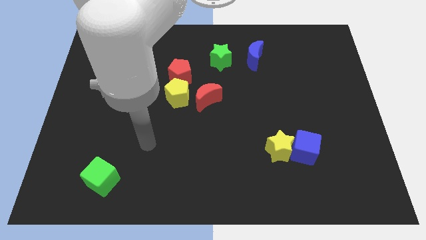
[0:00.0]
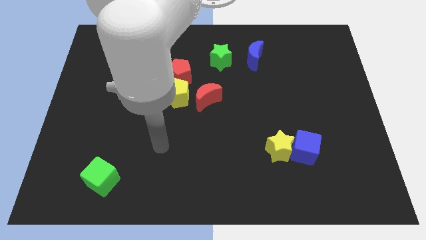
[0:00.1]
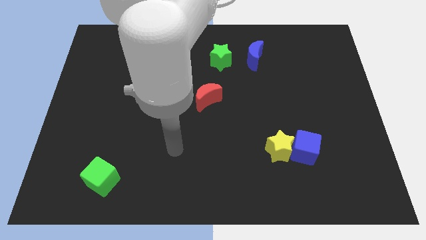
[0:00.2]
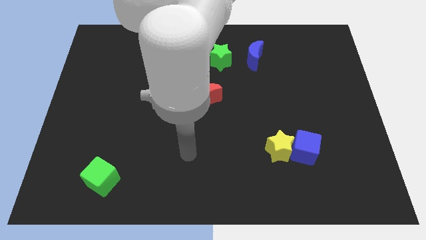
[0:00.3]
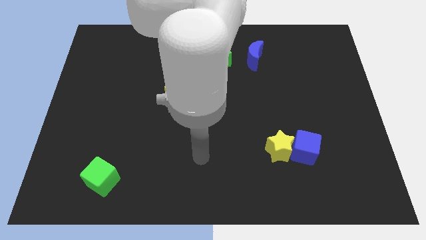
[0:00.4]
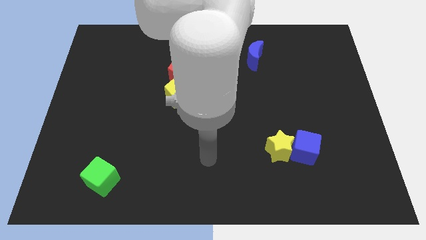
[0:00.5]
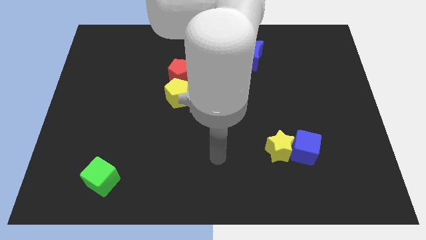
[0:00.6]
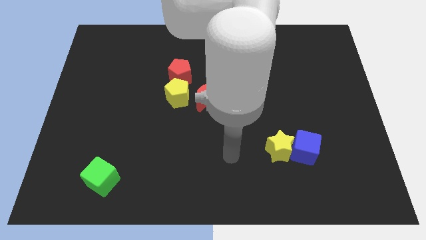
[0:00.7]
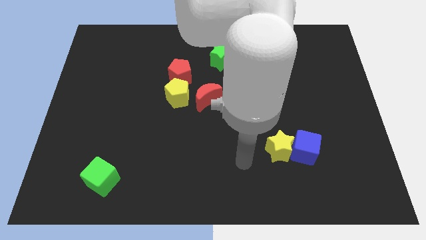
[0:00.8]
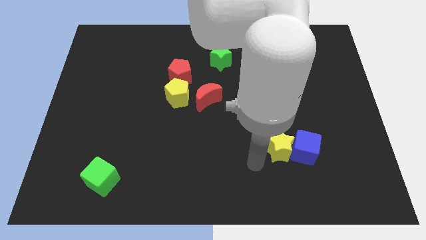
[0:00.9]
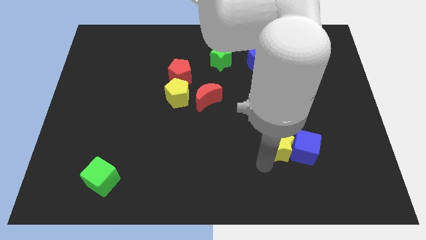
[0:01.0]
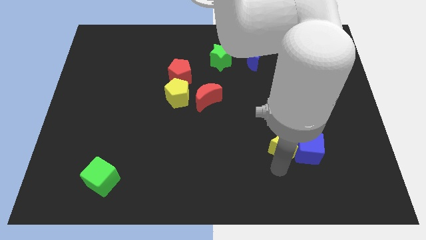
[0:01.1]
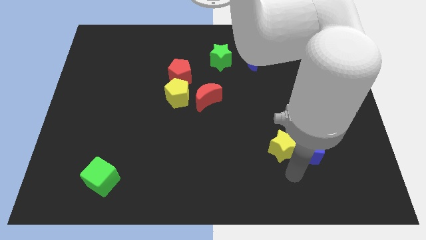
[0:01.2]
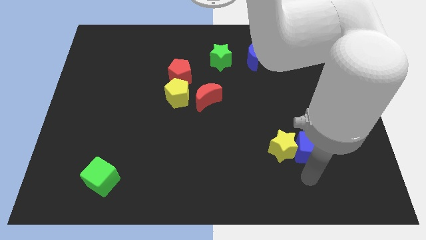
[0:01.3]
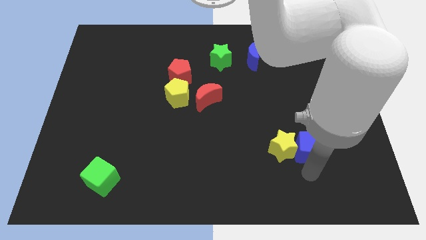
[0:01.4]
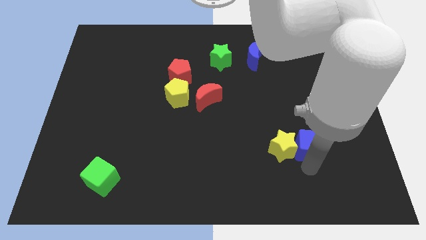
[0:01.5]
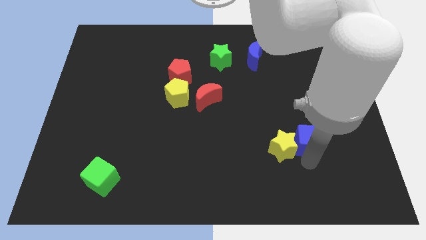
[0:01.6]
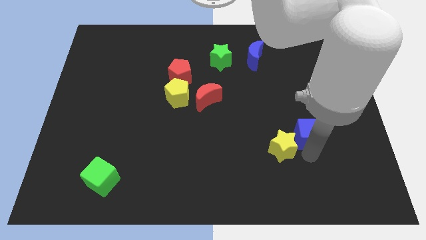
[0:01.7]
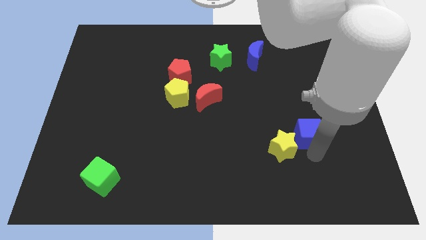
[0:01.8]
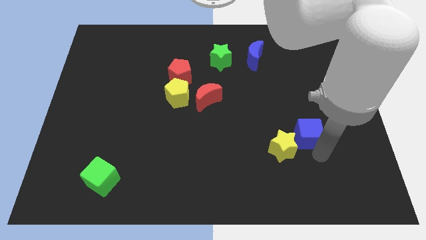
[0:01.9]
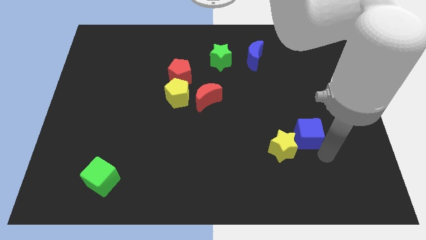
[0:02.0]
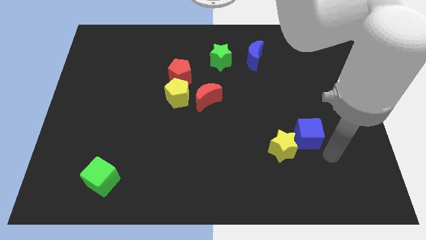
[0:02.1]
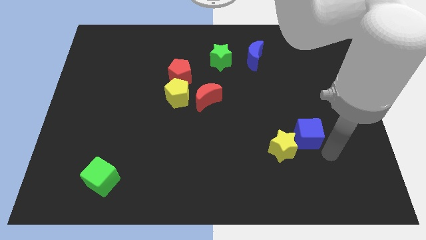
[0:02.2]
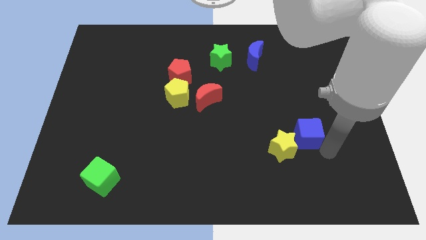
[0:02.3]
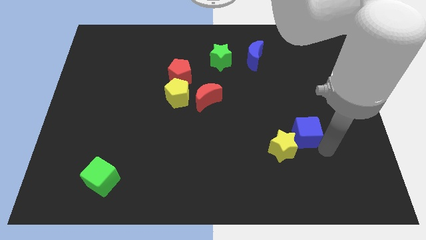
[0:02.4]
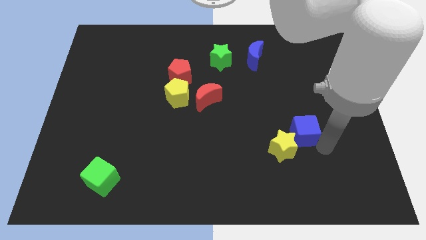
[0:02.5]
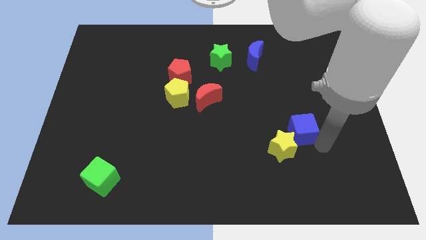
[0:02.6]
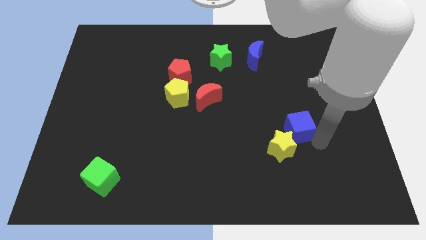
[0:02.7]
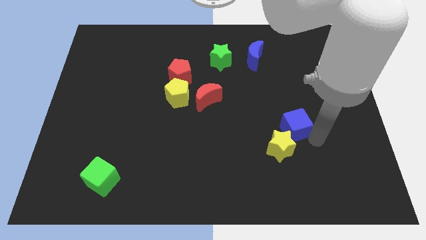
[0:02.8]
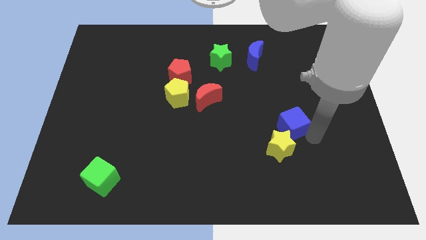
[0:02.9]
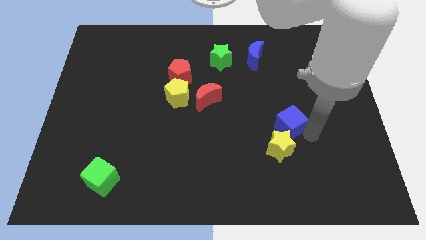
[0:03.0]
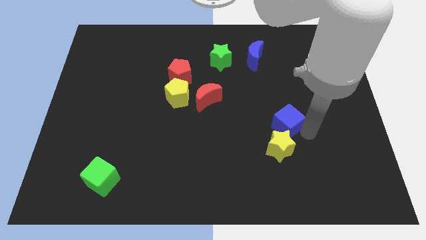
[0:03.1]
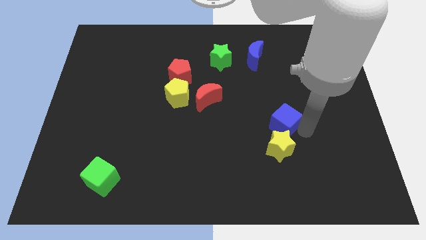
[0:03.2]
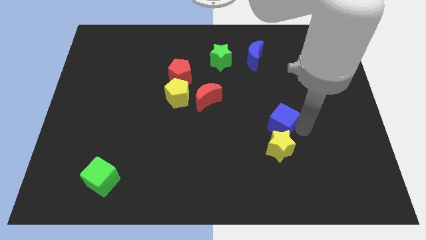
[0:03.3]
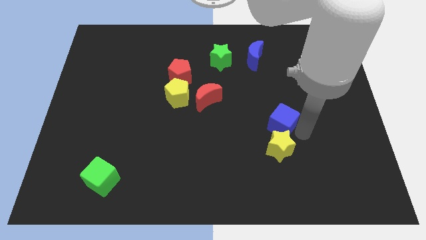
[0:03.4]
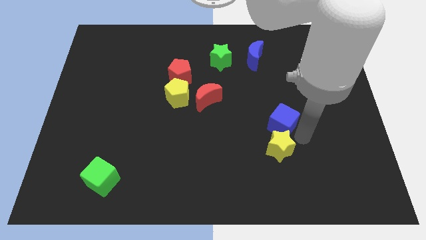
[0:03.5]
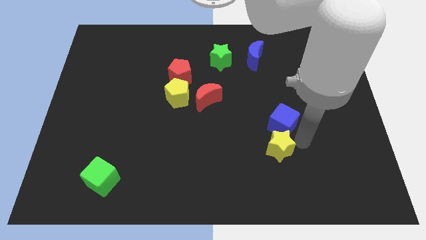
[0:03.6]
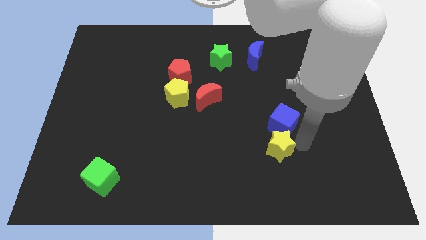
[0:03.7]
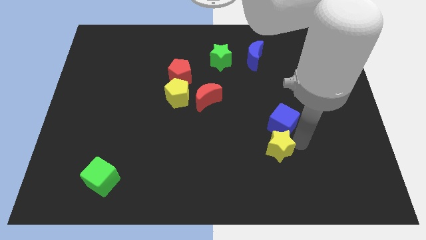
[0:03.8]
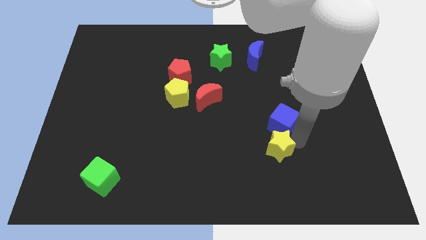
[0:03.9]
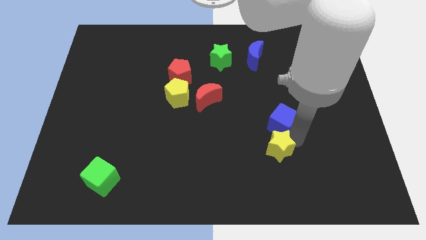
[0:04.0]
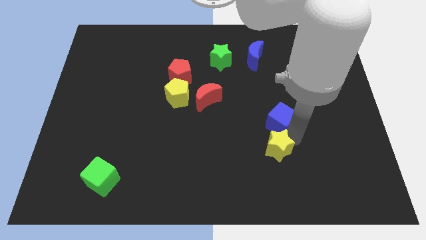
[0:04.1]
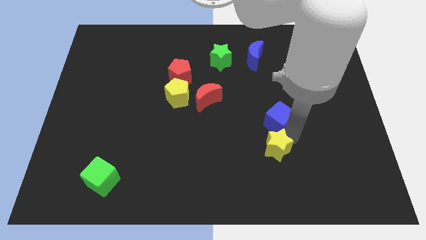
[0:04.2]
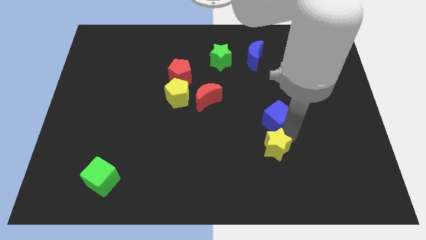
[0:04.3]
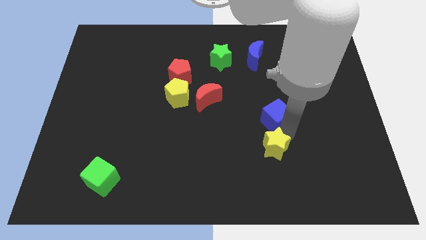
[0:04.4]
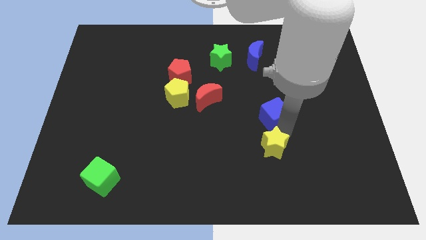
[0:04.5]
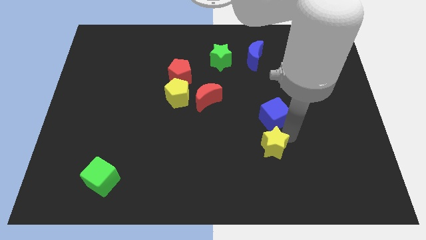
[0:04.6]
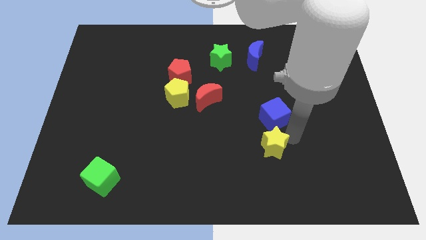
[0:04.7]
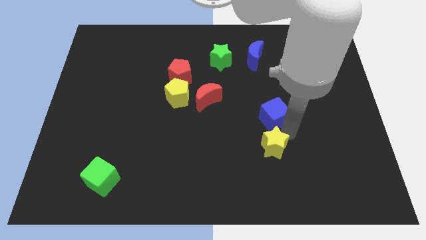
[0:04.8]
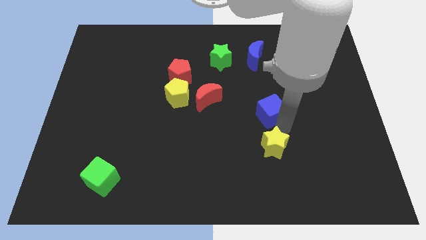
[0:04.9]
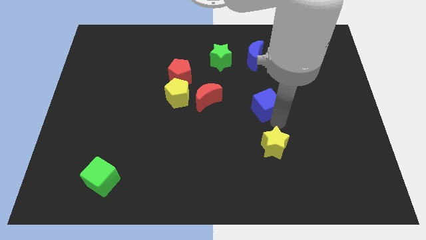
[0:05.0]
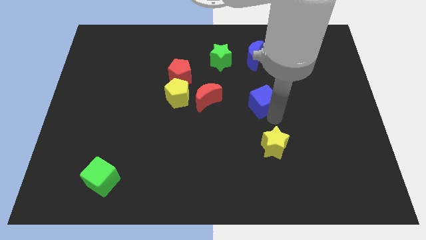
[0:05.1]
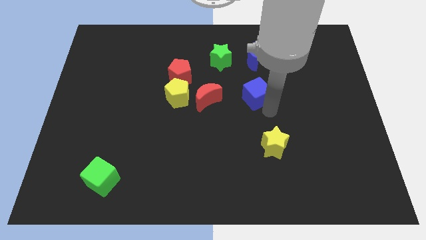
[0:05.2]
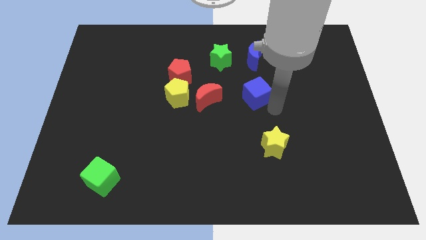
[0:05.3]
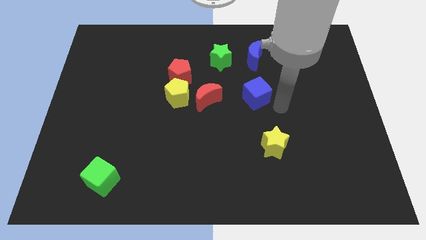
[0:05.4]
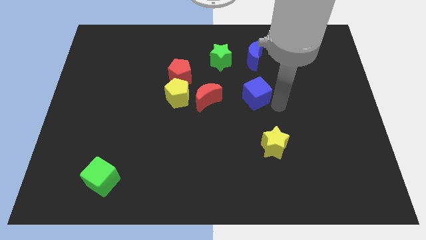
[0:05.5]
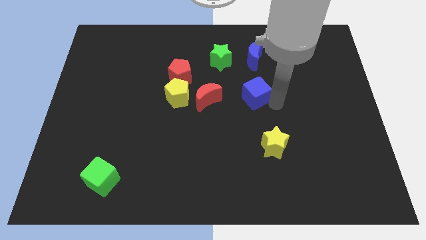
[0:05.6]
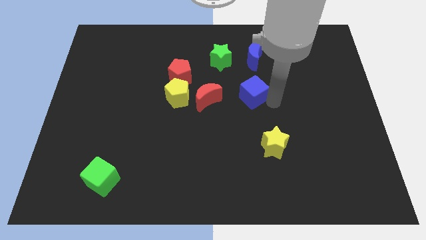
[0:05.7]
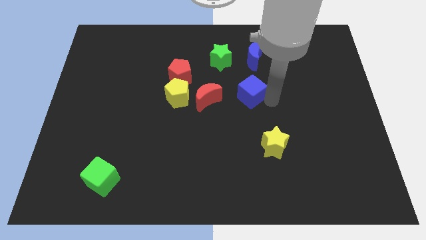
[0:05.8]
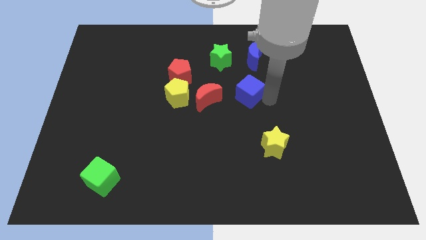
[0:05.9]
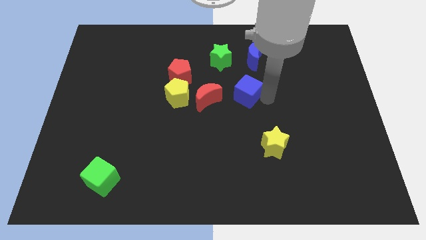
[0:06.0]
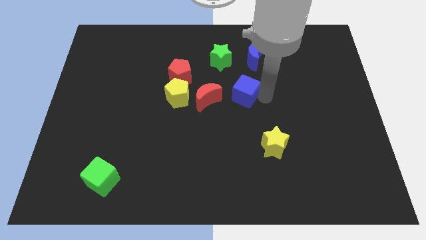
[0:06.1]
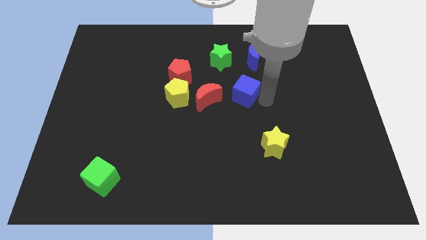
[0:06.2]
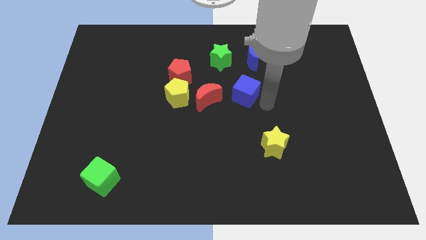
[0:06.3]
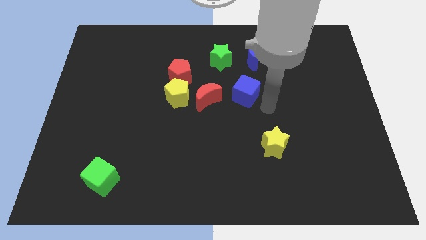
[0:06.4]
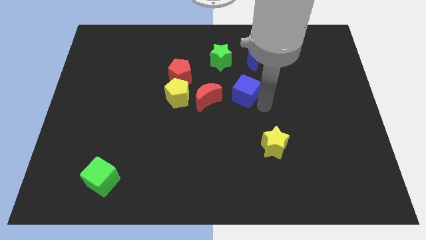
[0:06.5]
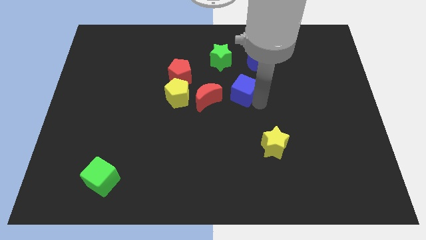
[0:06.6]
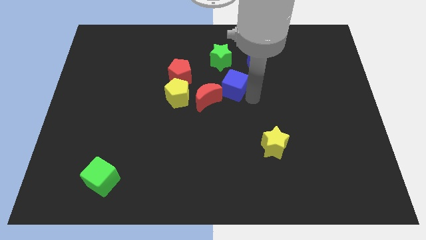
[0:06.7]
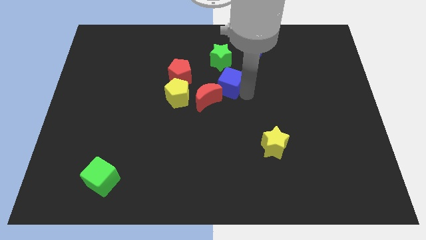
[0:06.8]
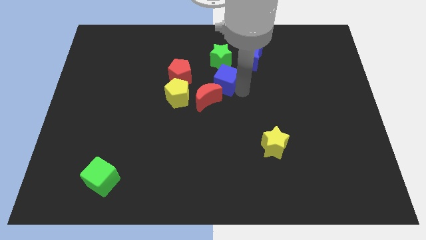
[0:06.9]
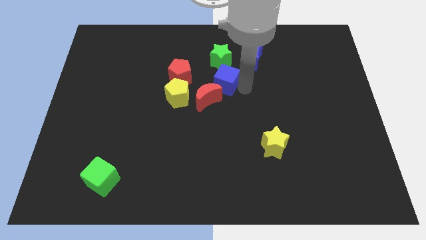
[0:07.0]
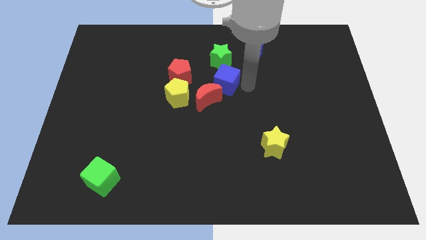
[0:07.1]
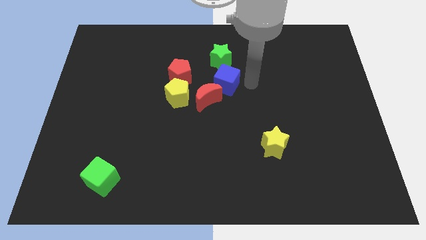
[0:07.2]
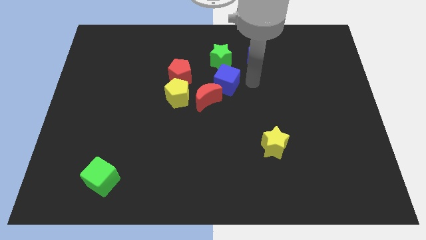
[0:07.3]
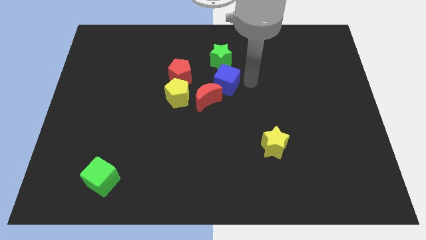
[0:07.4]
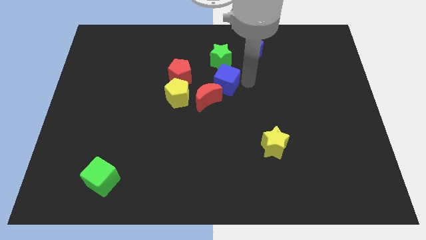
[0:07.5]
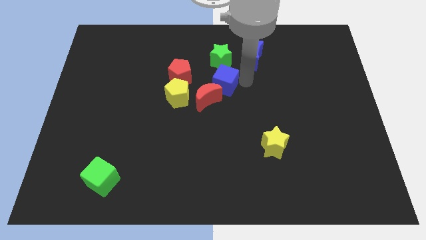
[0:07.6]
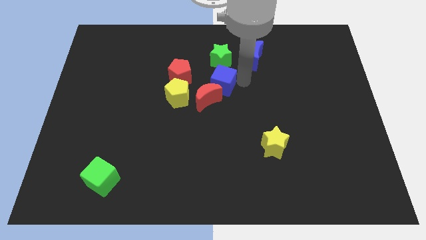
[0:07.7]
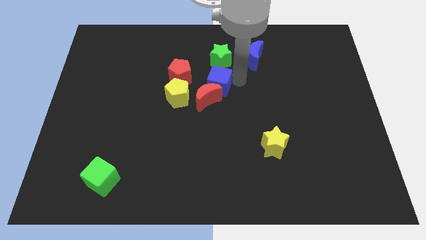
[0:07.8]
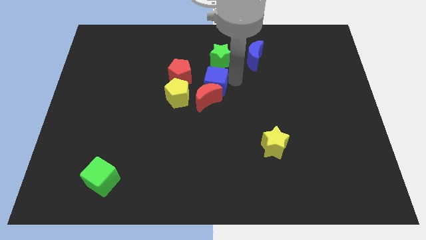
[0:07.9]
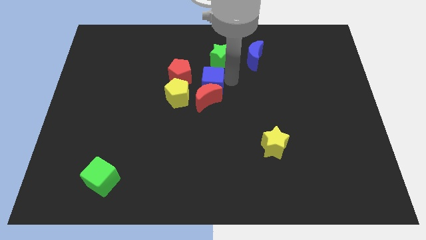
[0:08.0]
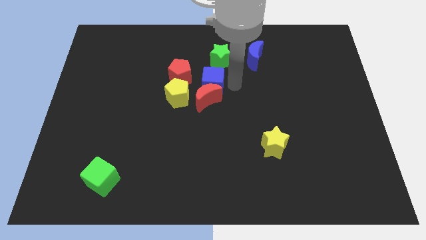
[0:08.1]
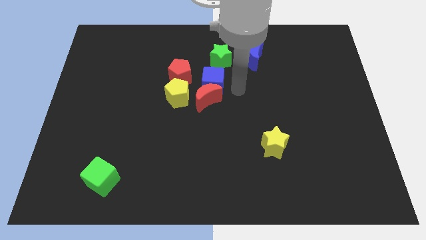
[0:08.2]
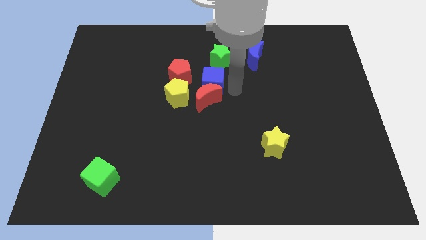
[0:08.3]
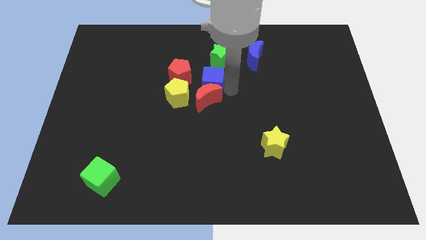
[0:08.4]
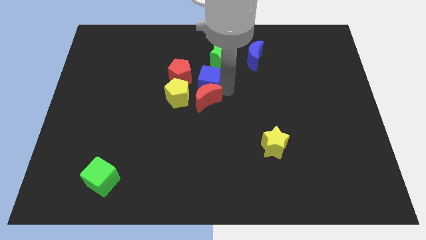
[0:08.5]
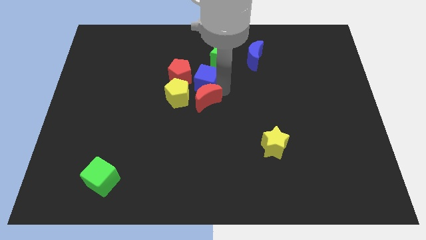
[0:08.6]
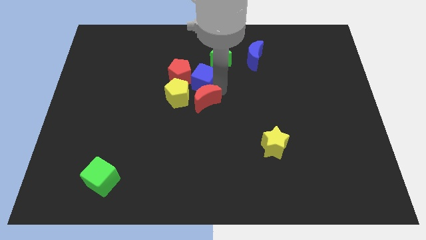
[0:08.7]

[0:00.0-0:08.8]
put the blue cube next to the red pentagon
